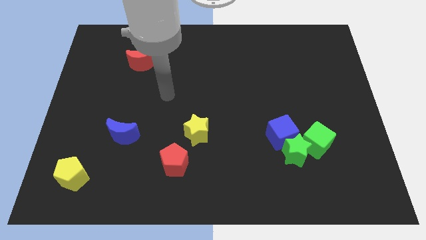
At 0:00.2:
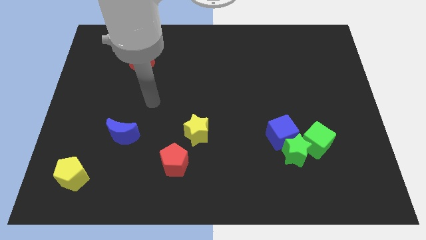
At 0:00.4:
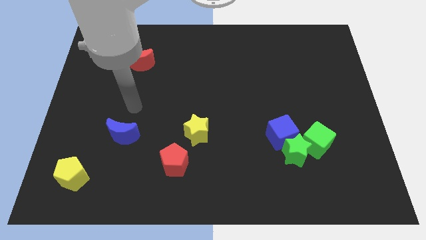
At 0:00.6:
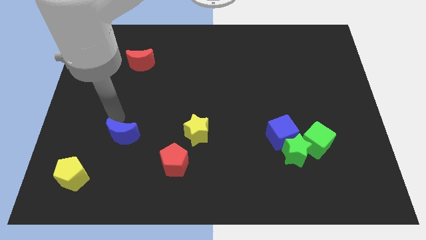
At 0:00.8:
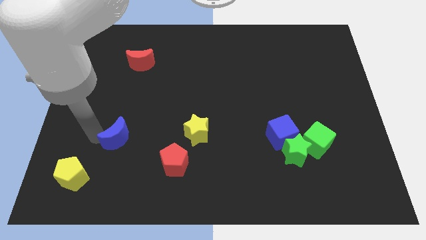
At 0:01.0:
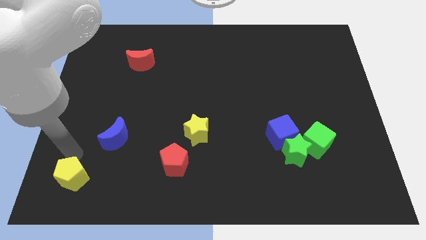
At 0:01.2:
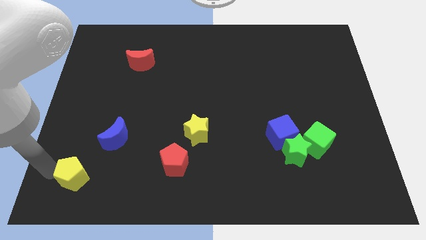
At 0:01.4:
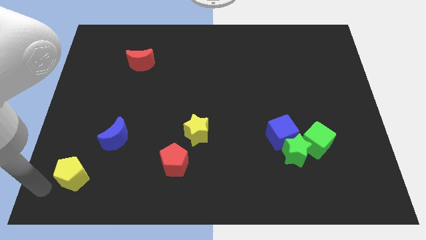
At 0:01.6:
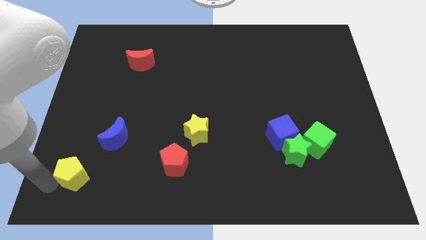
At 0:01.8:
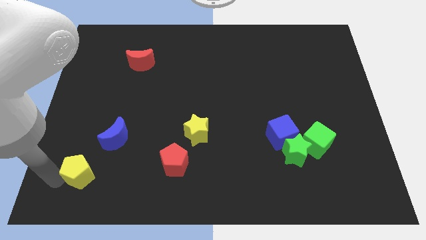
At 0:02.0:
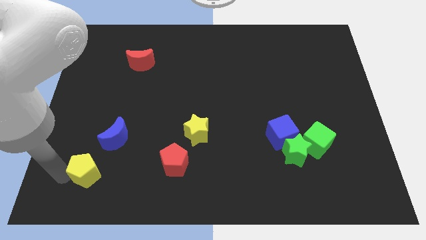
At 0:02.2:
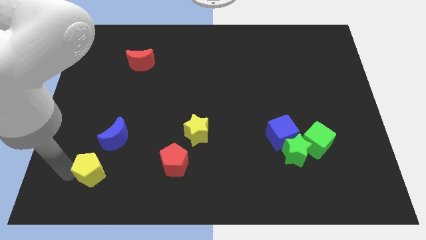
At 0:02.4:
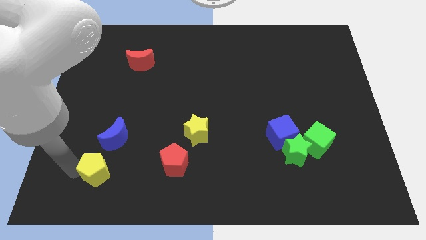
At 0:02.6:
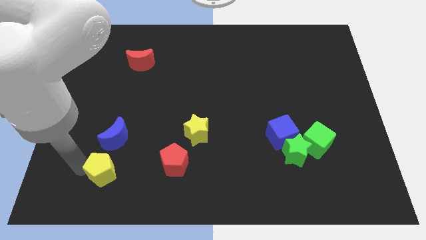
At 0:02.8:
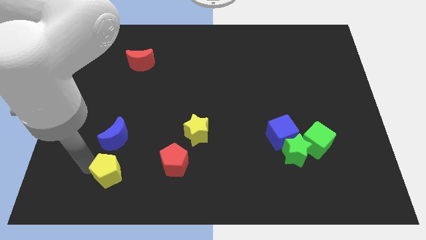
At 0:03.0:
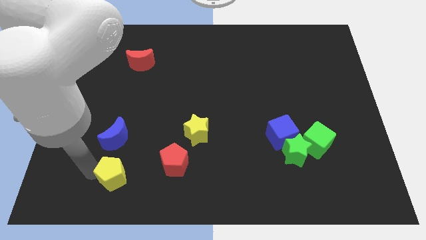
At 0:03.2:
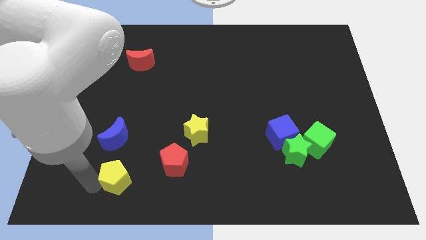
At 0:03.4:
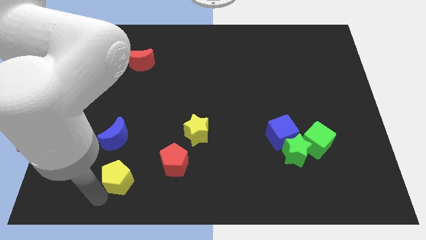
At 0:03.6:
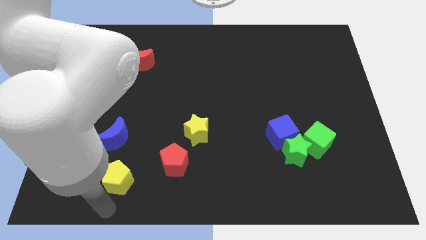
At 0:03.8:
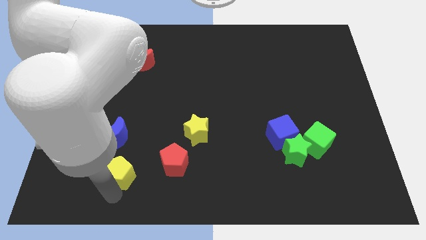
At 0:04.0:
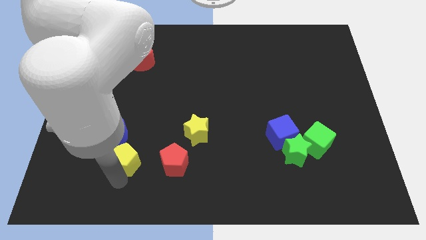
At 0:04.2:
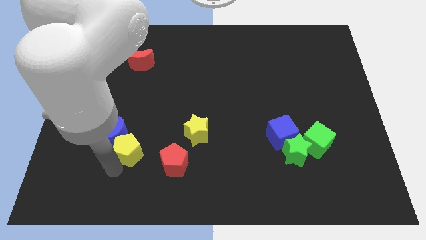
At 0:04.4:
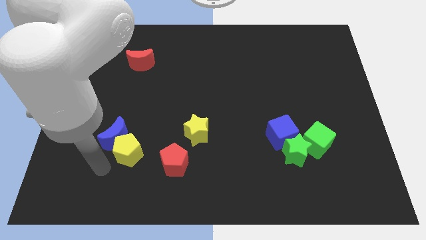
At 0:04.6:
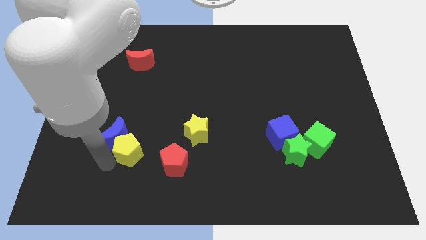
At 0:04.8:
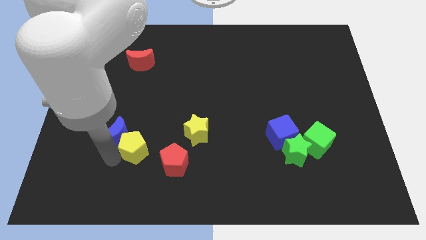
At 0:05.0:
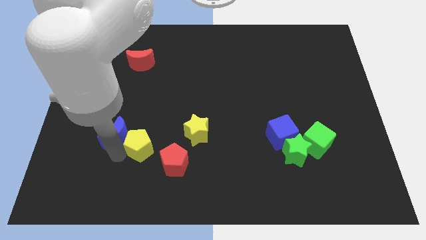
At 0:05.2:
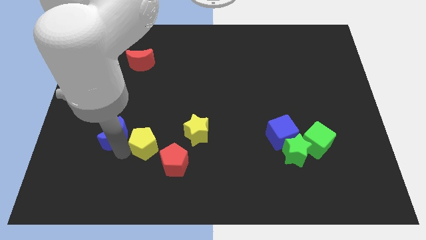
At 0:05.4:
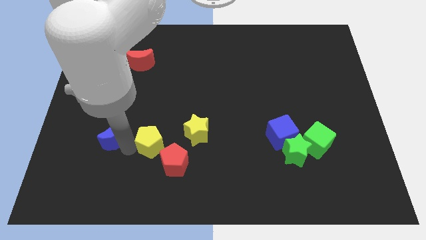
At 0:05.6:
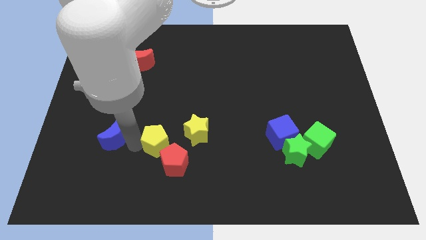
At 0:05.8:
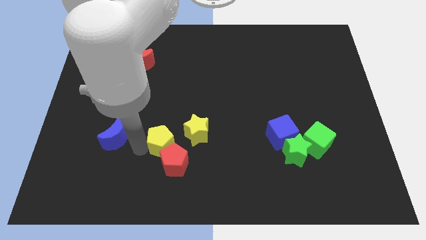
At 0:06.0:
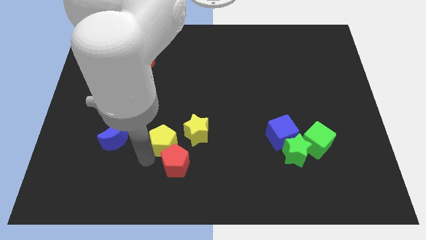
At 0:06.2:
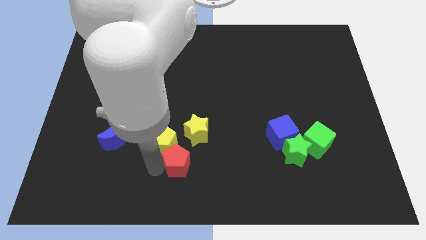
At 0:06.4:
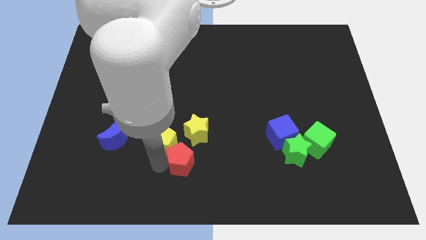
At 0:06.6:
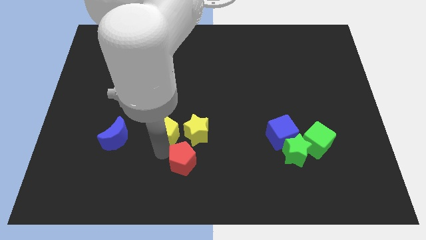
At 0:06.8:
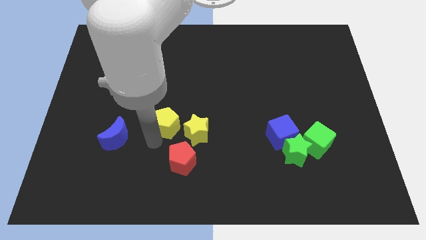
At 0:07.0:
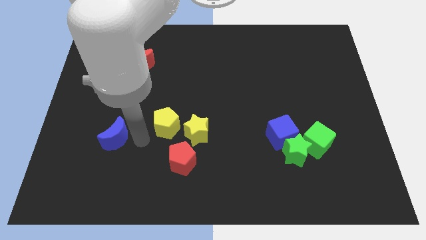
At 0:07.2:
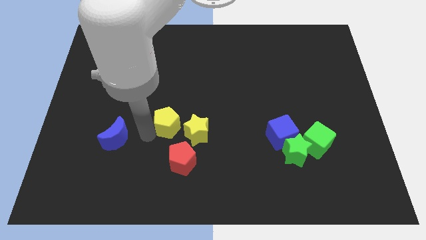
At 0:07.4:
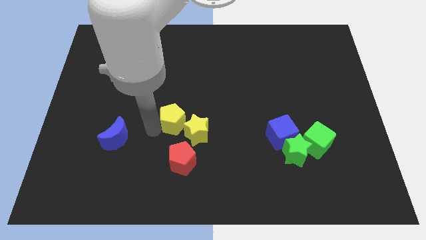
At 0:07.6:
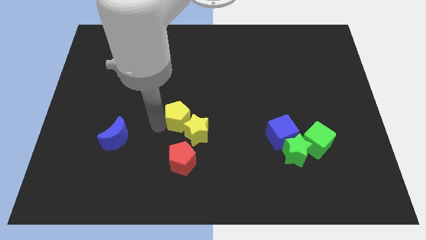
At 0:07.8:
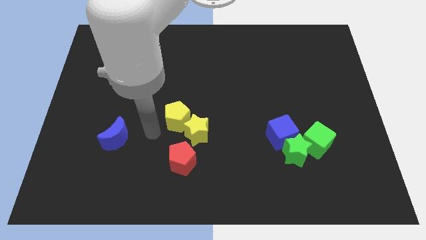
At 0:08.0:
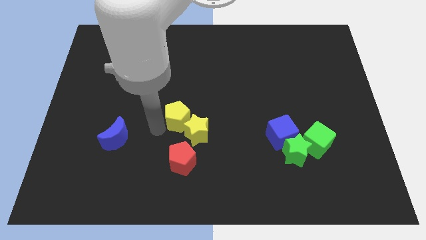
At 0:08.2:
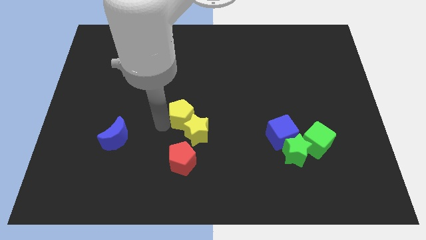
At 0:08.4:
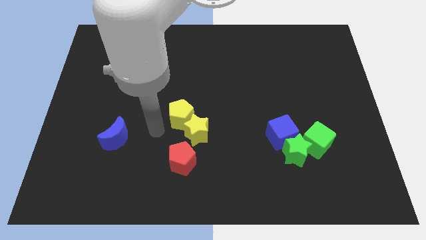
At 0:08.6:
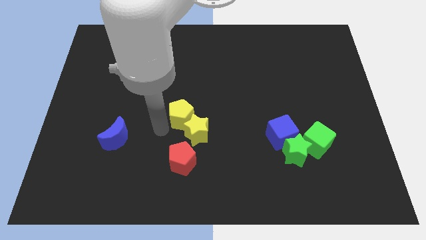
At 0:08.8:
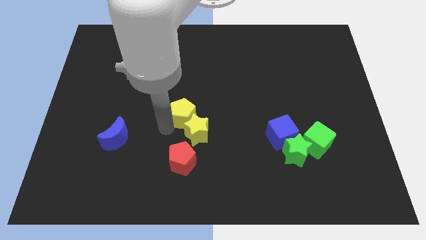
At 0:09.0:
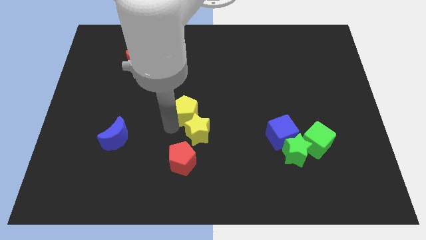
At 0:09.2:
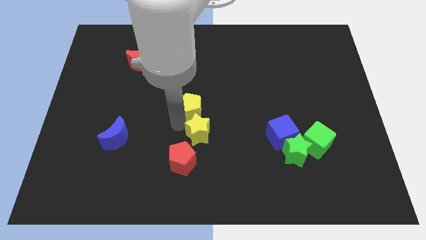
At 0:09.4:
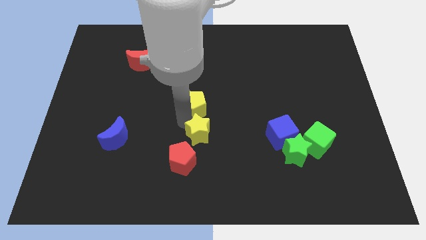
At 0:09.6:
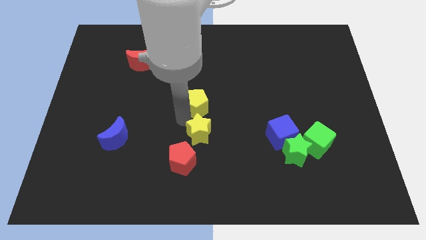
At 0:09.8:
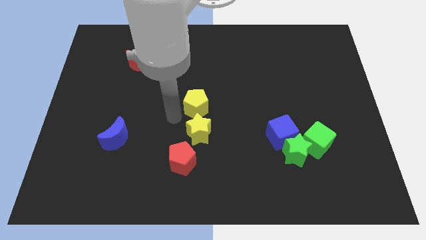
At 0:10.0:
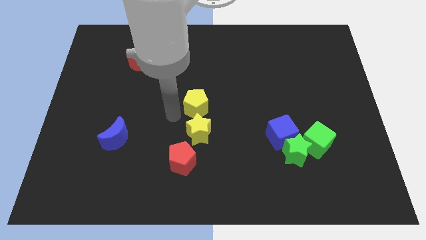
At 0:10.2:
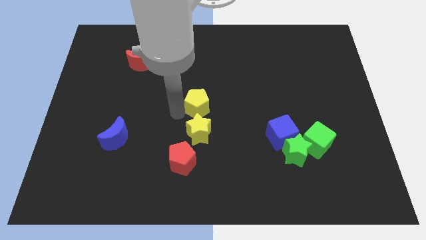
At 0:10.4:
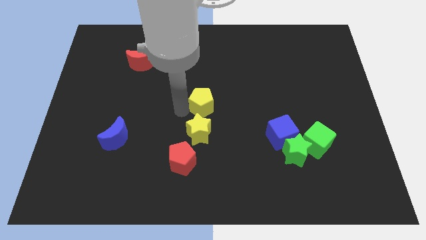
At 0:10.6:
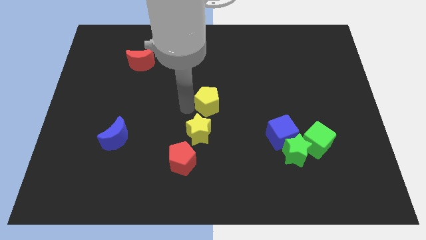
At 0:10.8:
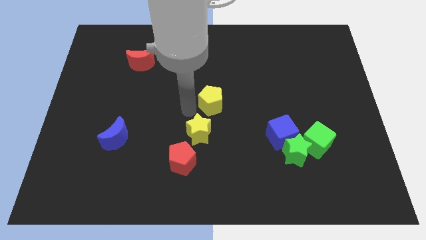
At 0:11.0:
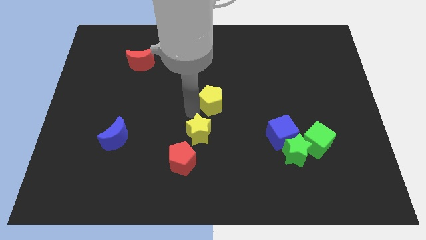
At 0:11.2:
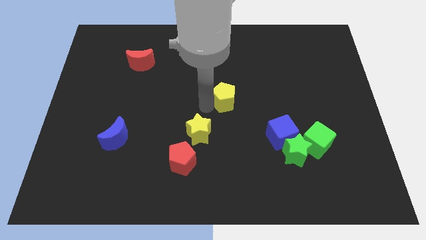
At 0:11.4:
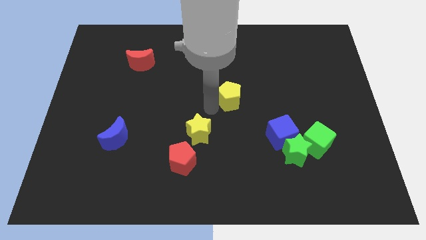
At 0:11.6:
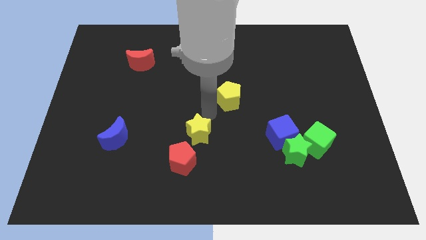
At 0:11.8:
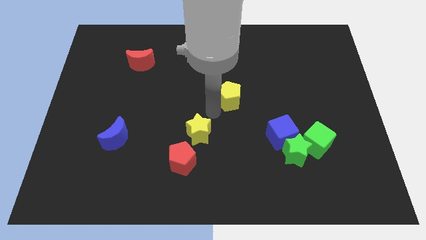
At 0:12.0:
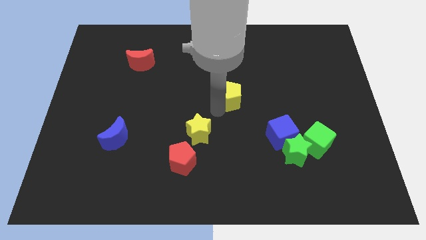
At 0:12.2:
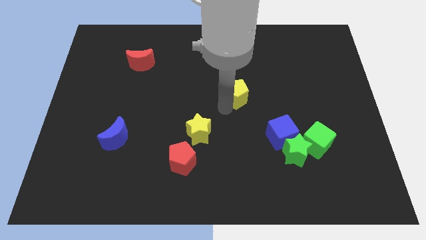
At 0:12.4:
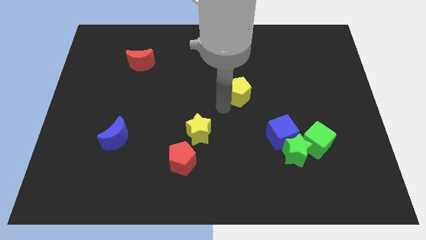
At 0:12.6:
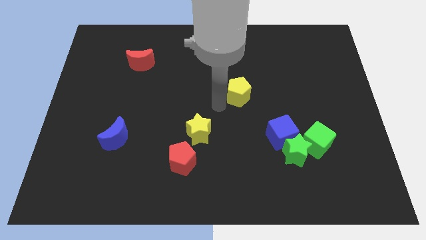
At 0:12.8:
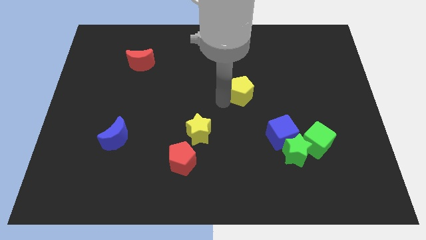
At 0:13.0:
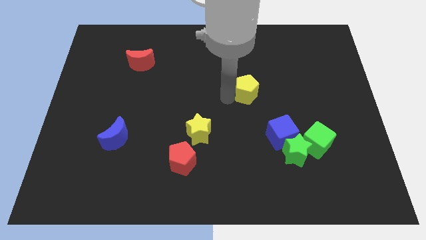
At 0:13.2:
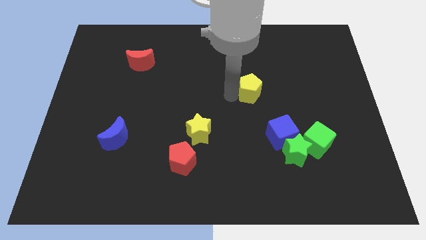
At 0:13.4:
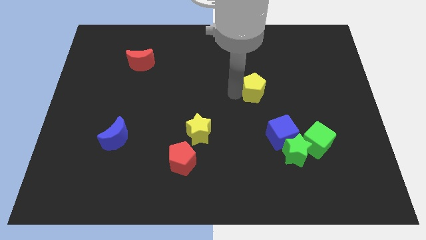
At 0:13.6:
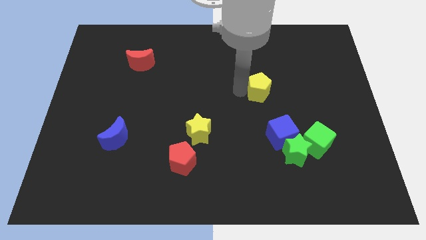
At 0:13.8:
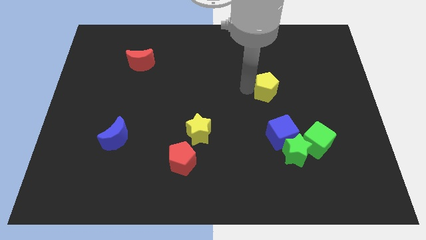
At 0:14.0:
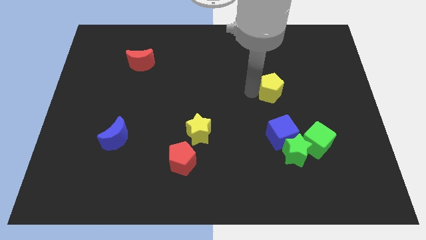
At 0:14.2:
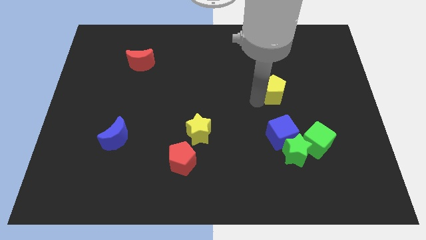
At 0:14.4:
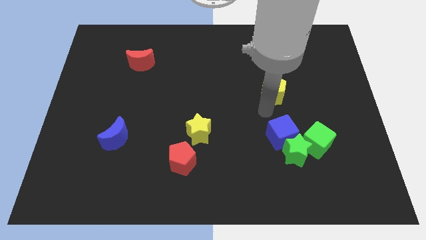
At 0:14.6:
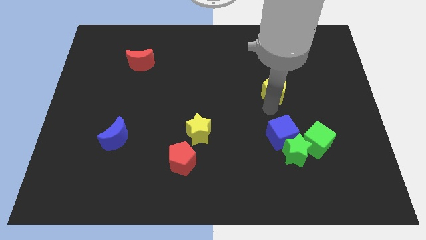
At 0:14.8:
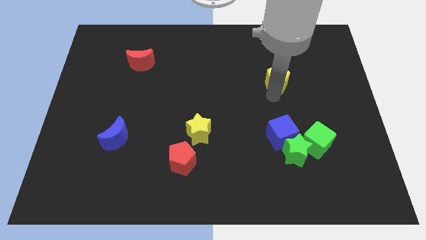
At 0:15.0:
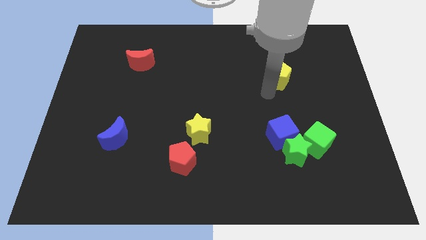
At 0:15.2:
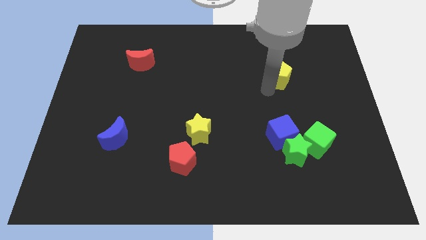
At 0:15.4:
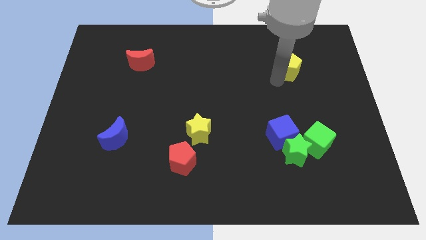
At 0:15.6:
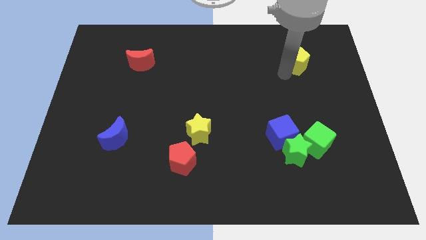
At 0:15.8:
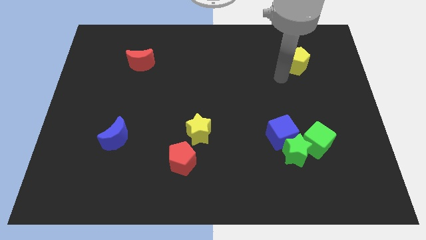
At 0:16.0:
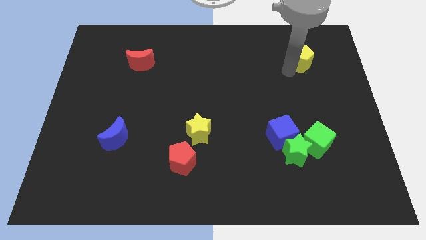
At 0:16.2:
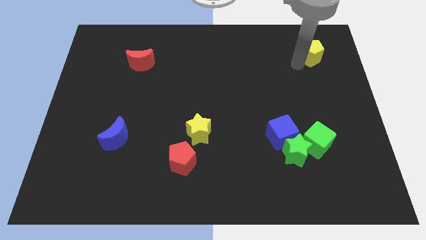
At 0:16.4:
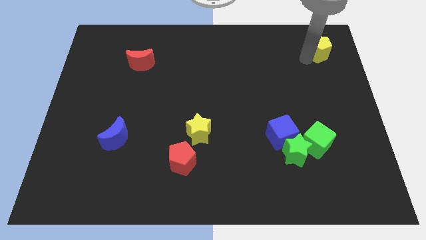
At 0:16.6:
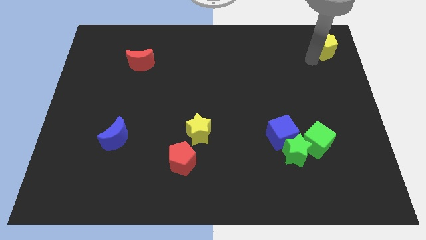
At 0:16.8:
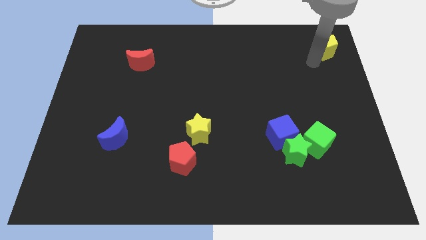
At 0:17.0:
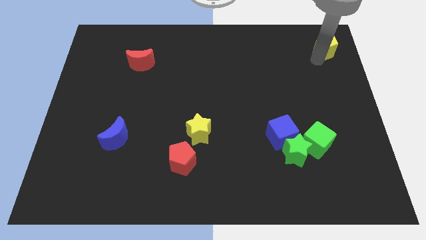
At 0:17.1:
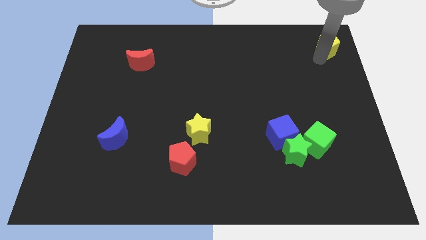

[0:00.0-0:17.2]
push the yellow pentagon to the top right
